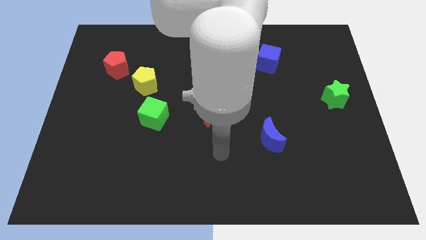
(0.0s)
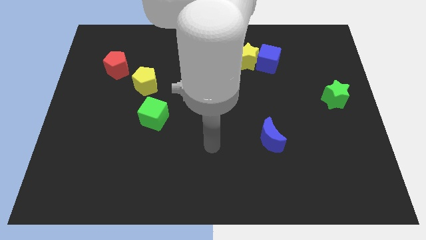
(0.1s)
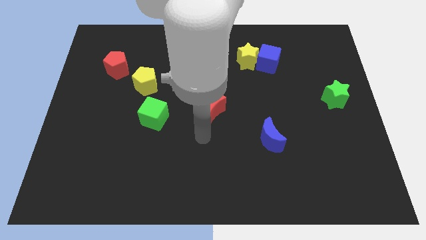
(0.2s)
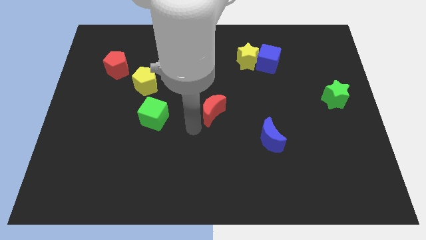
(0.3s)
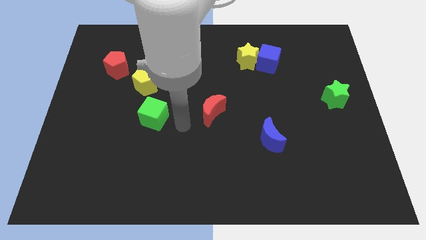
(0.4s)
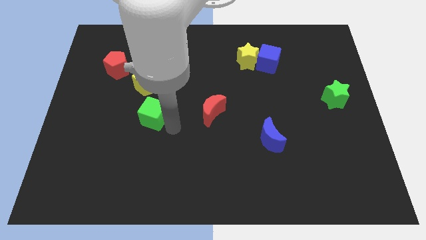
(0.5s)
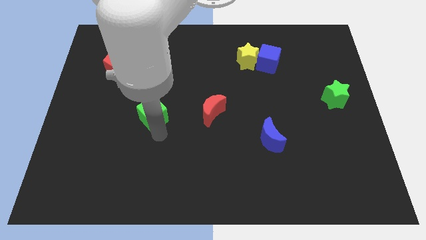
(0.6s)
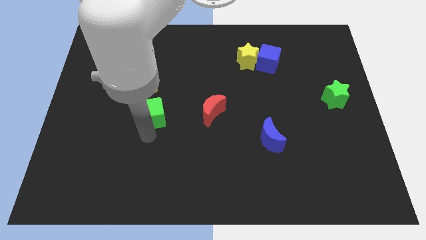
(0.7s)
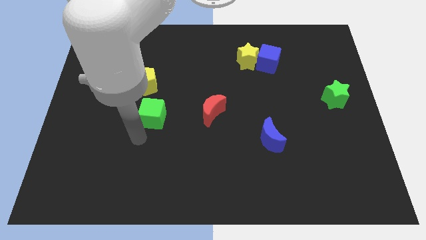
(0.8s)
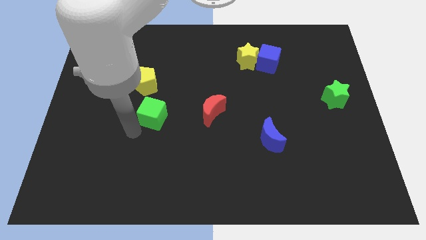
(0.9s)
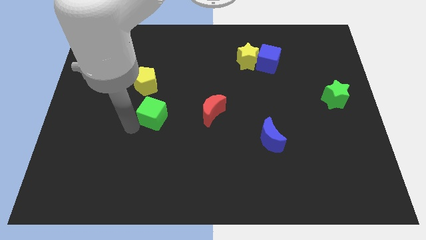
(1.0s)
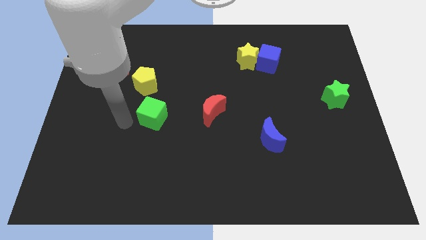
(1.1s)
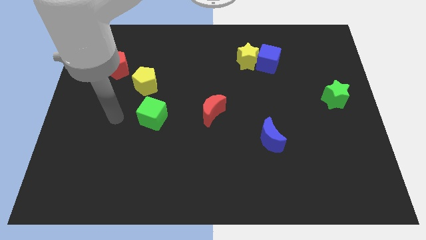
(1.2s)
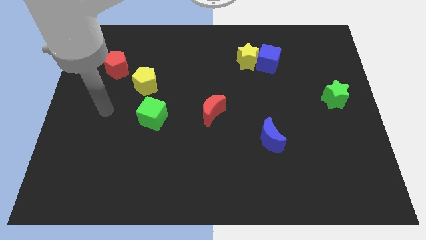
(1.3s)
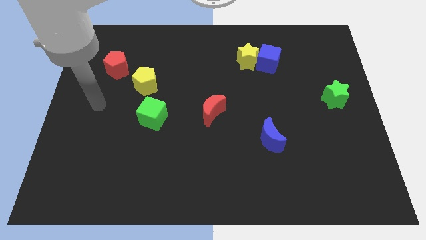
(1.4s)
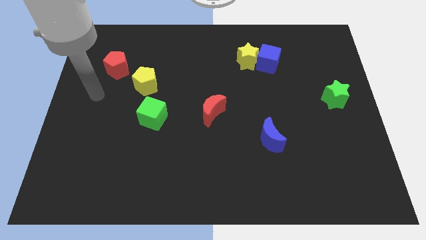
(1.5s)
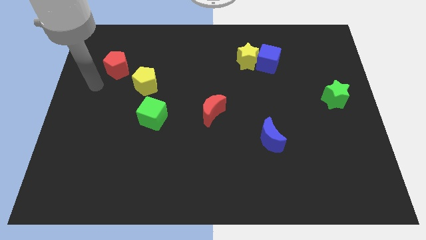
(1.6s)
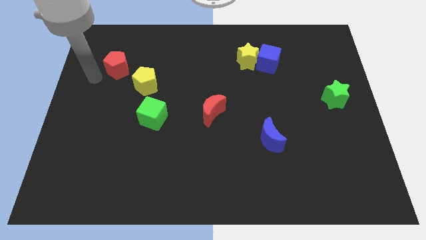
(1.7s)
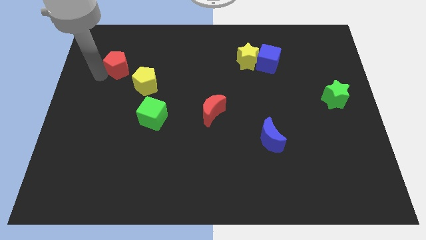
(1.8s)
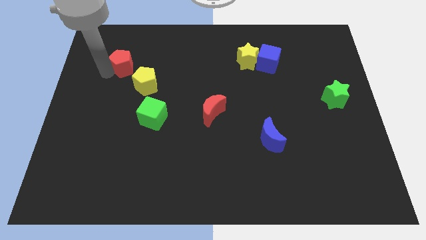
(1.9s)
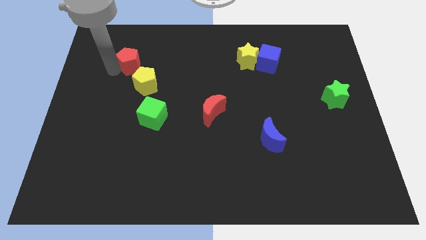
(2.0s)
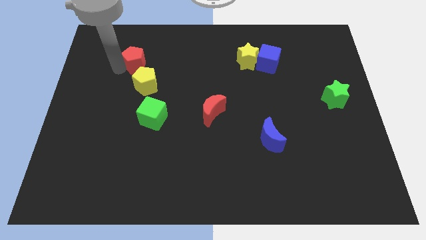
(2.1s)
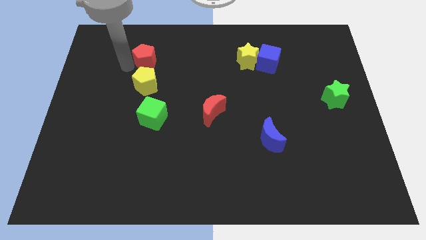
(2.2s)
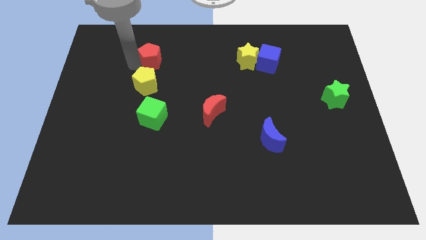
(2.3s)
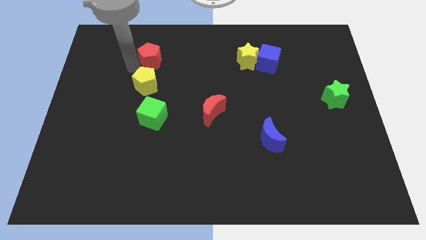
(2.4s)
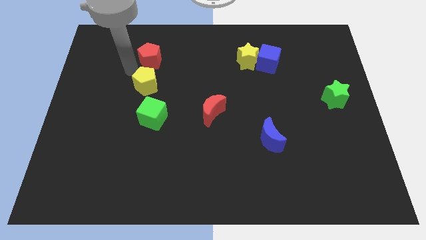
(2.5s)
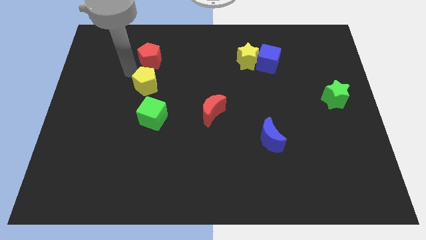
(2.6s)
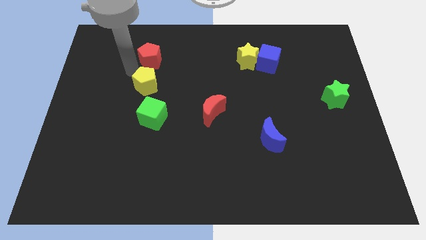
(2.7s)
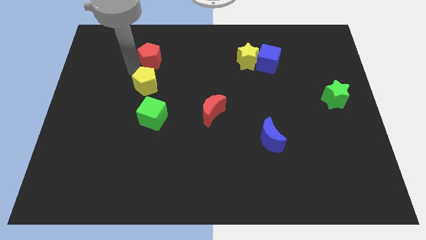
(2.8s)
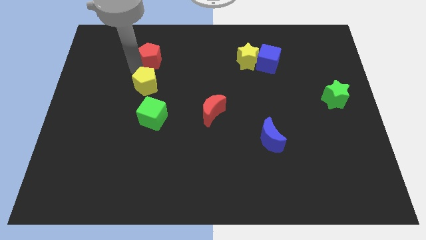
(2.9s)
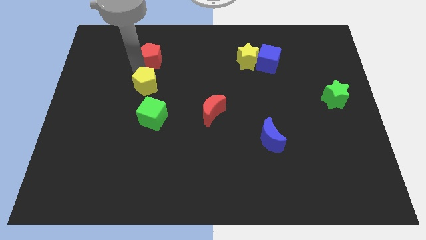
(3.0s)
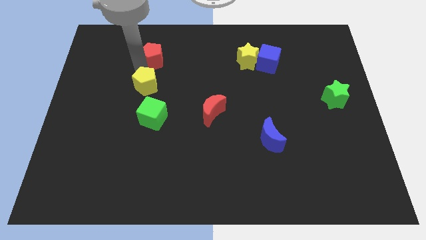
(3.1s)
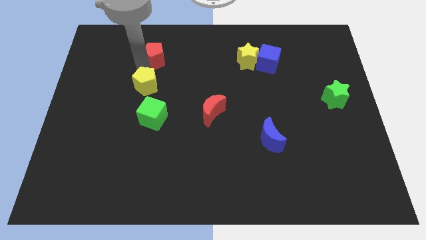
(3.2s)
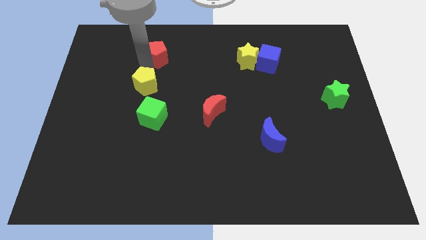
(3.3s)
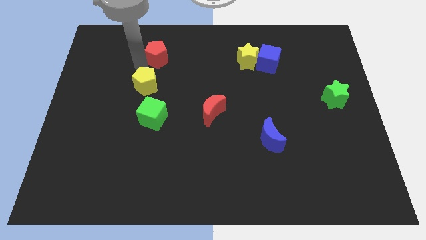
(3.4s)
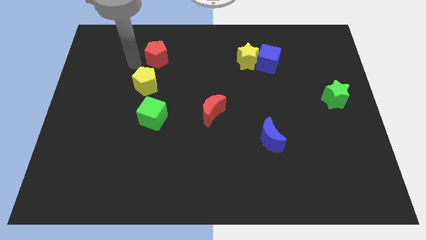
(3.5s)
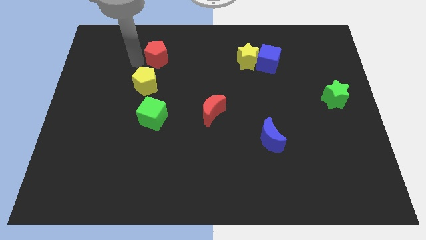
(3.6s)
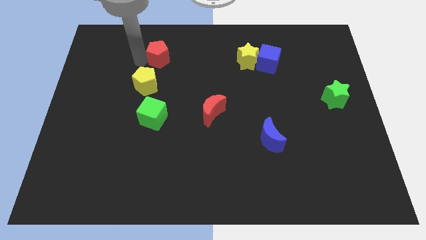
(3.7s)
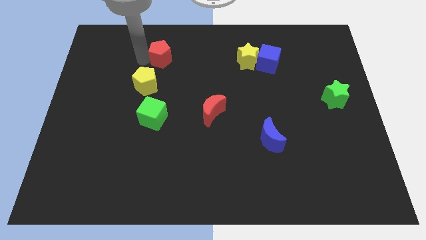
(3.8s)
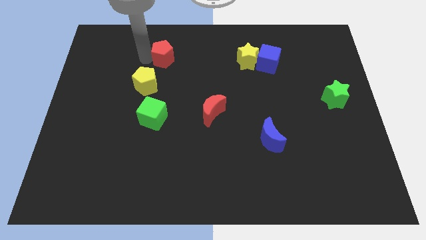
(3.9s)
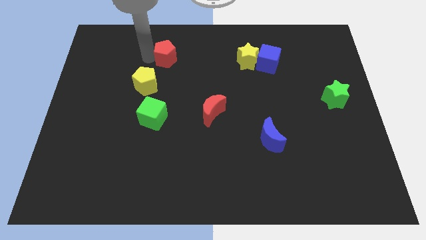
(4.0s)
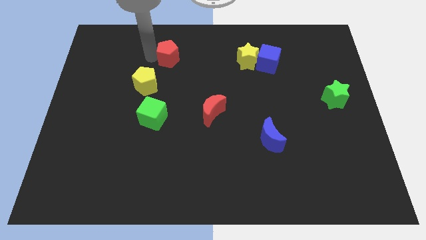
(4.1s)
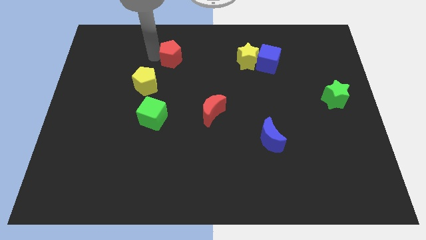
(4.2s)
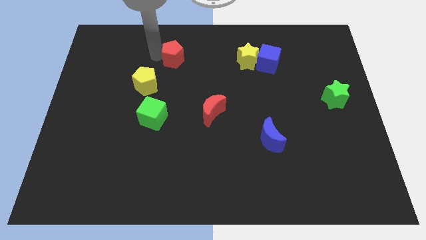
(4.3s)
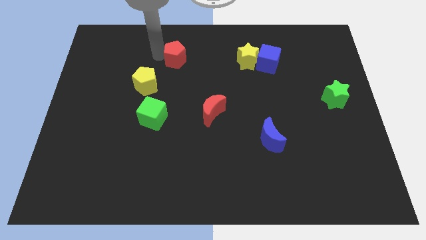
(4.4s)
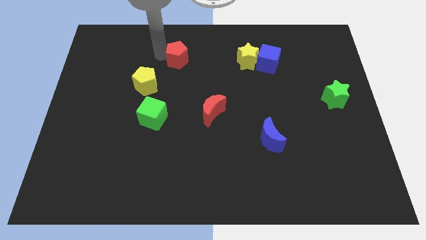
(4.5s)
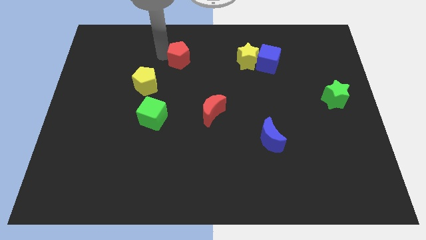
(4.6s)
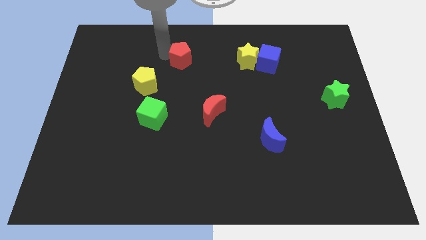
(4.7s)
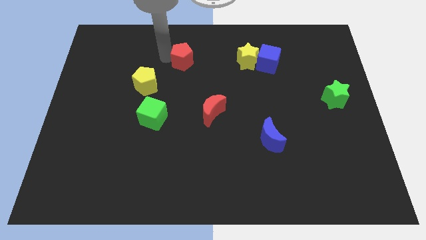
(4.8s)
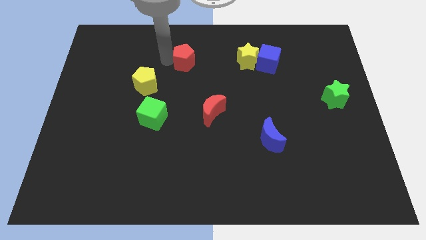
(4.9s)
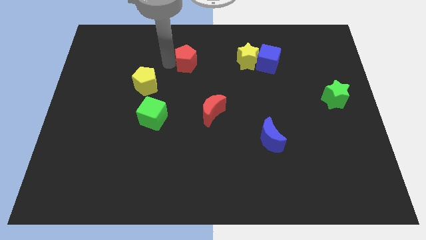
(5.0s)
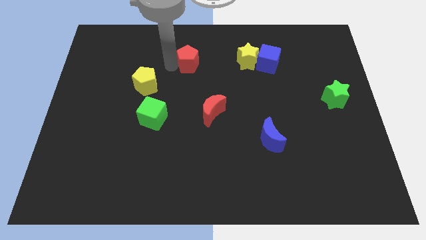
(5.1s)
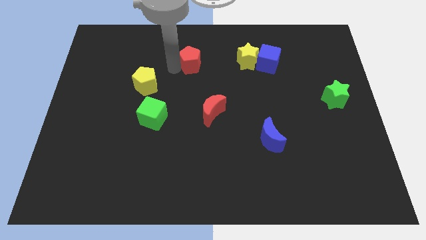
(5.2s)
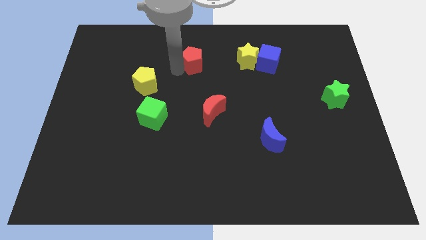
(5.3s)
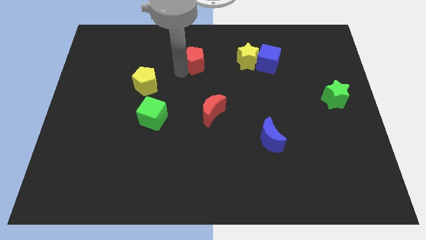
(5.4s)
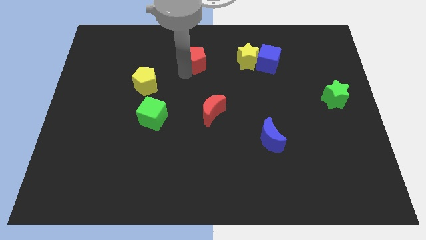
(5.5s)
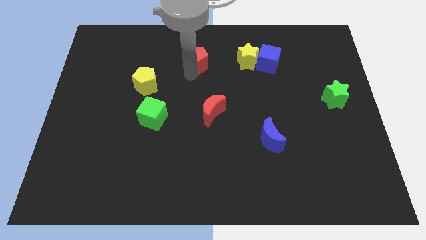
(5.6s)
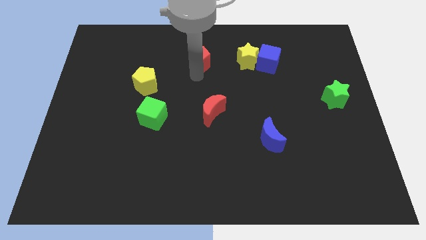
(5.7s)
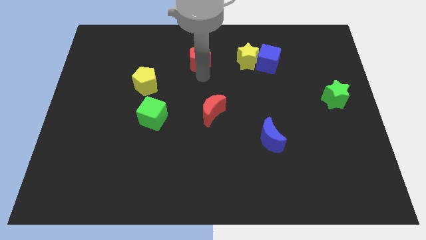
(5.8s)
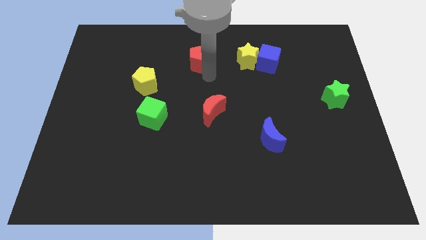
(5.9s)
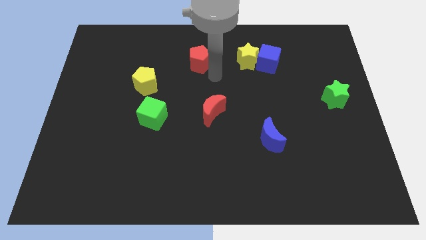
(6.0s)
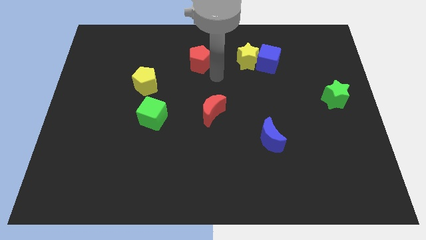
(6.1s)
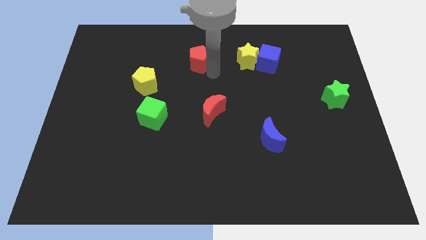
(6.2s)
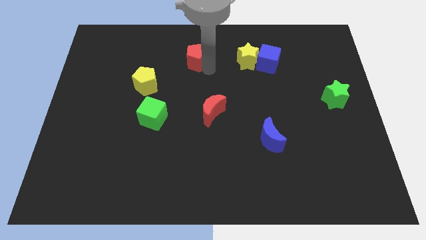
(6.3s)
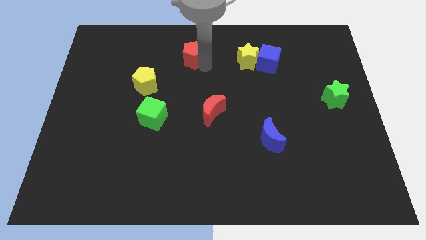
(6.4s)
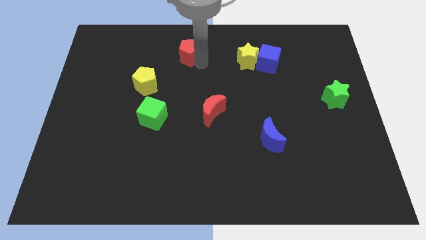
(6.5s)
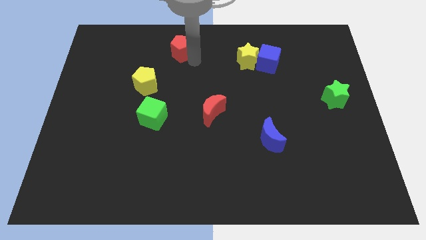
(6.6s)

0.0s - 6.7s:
push the red pentagon to the towards your base

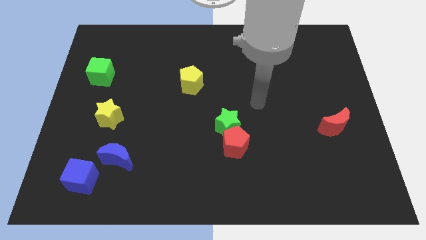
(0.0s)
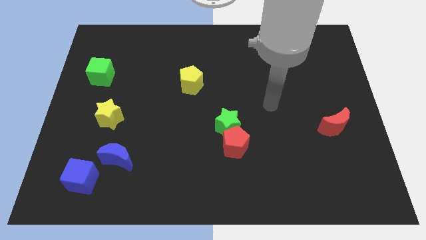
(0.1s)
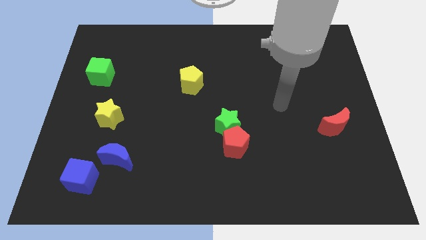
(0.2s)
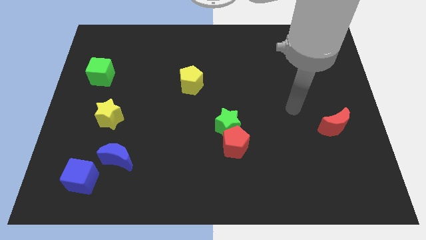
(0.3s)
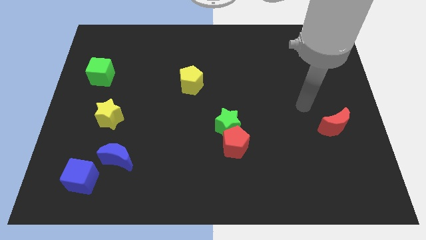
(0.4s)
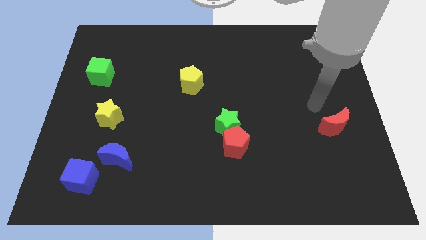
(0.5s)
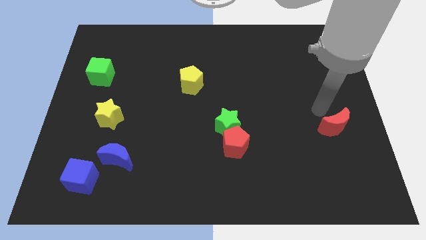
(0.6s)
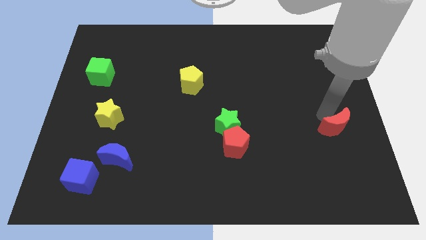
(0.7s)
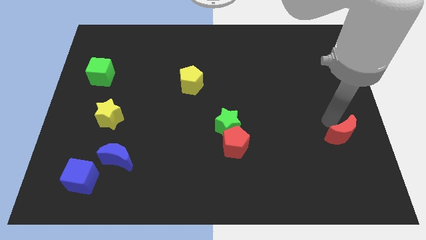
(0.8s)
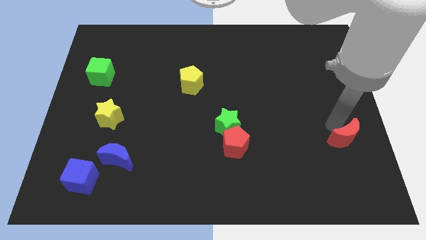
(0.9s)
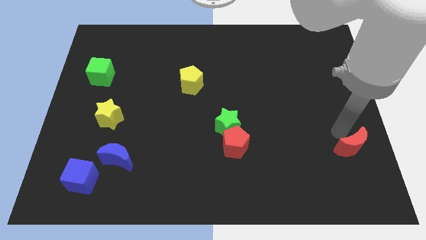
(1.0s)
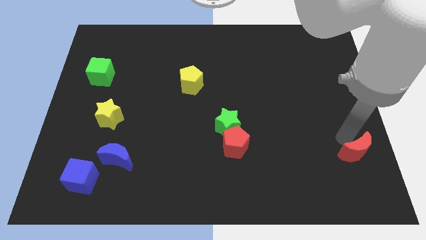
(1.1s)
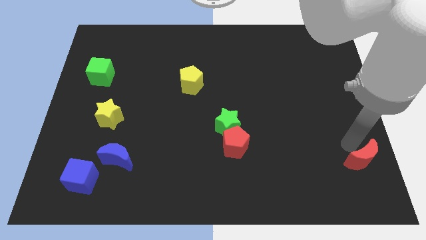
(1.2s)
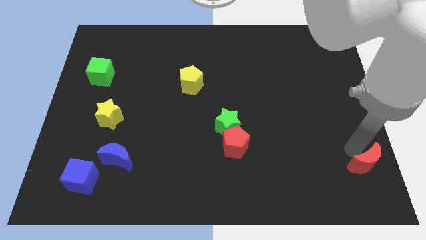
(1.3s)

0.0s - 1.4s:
slide the red moon to the bottom right corner
